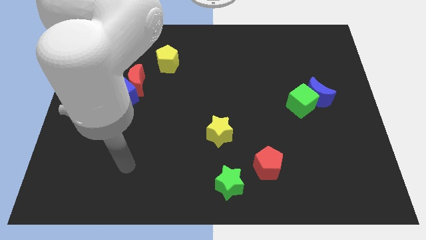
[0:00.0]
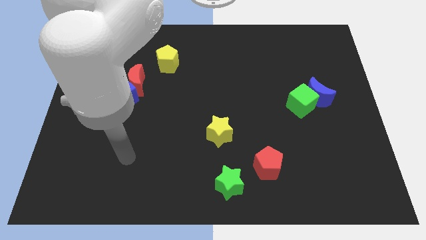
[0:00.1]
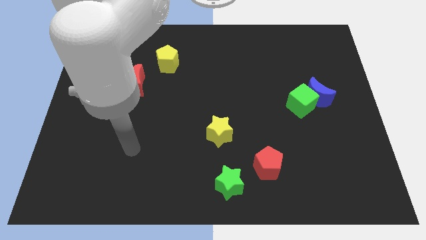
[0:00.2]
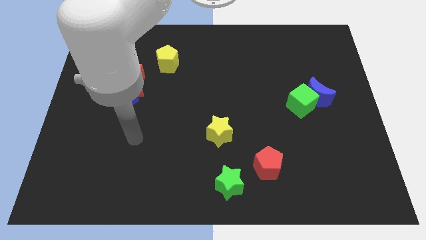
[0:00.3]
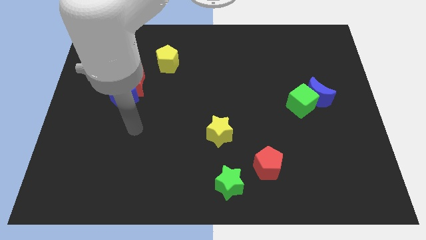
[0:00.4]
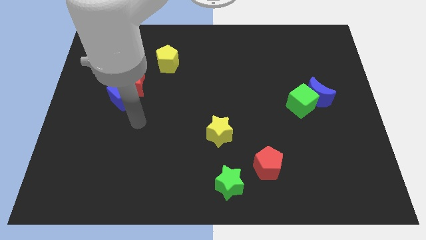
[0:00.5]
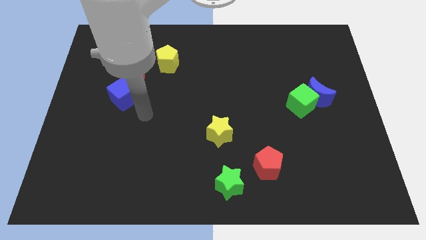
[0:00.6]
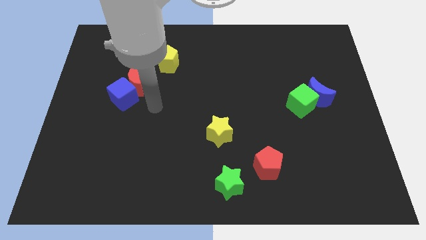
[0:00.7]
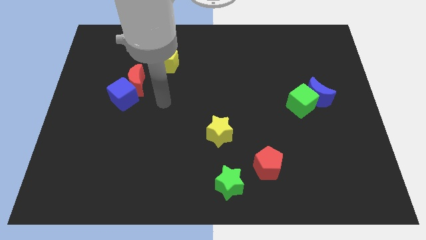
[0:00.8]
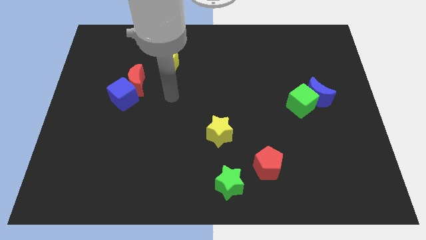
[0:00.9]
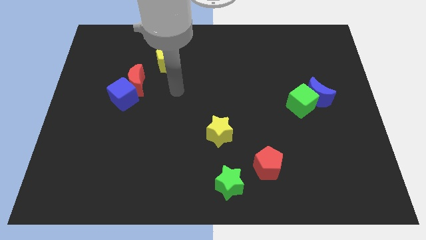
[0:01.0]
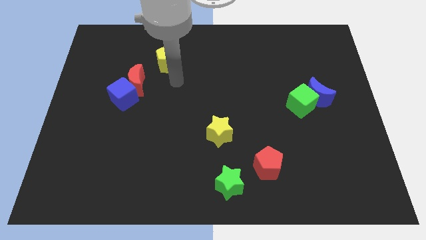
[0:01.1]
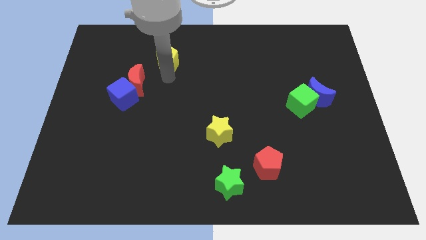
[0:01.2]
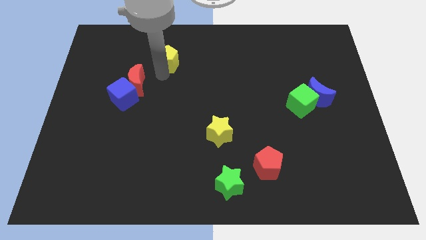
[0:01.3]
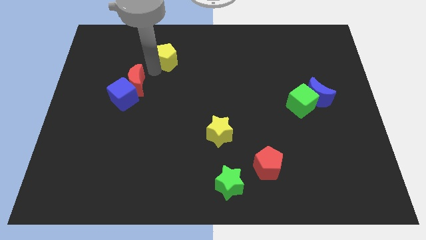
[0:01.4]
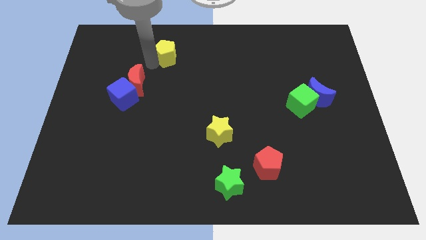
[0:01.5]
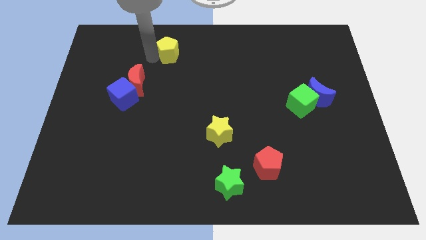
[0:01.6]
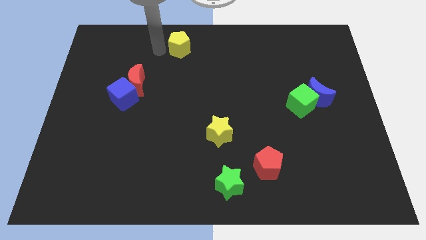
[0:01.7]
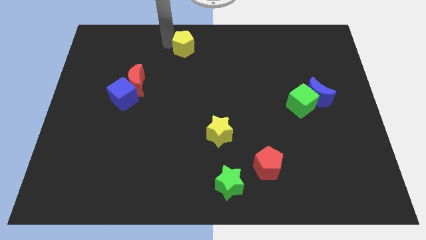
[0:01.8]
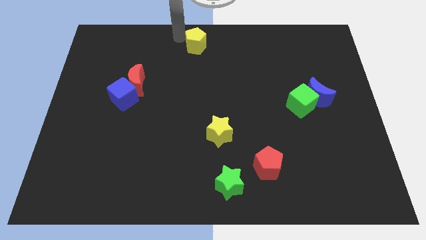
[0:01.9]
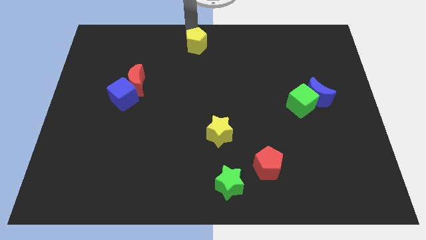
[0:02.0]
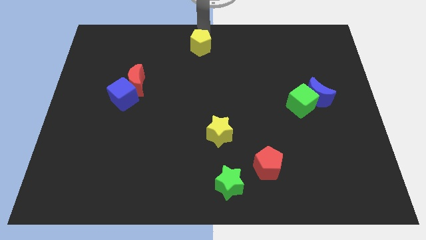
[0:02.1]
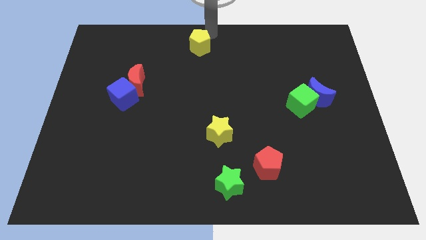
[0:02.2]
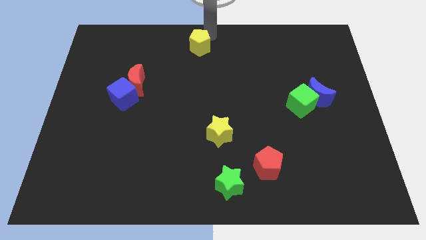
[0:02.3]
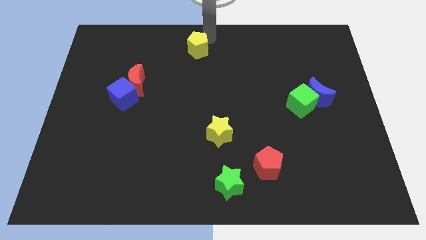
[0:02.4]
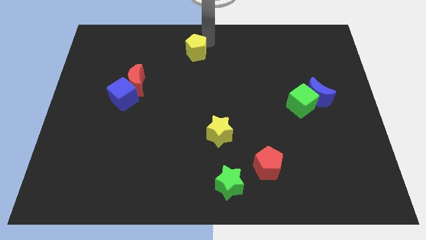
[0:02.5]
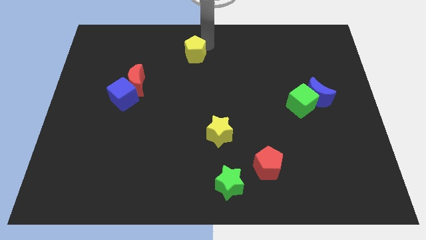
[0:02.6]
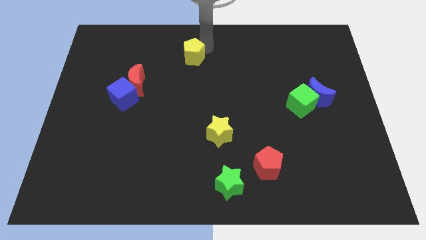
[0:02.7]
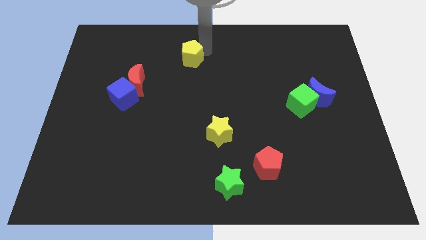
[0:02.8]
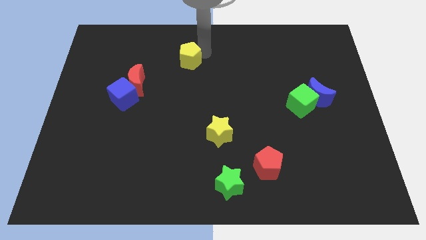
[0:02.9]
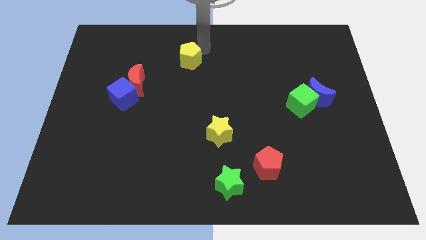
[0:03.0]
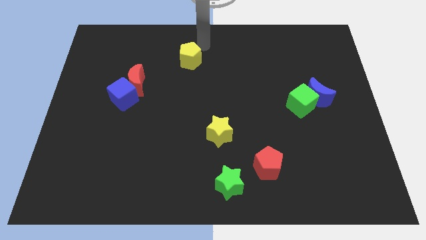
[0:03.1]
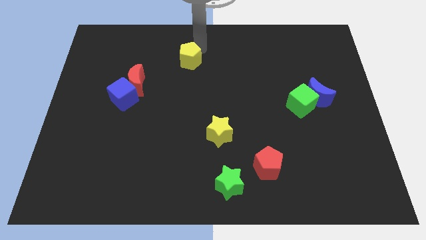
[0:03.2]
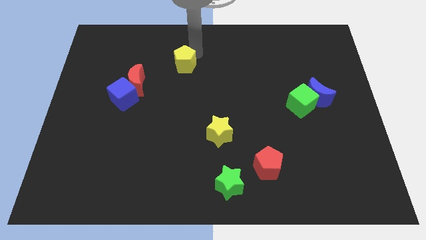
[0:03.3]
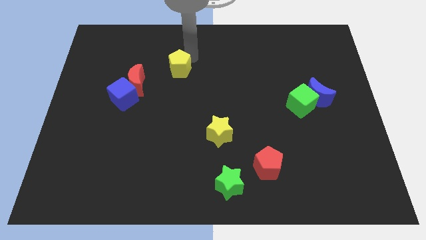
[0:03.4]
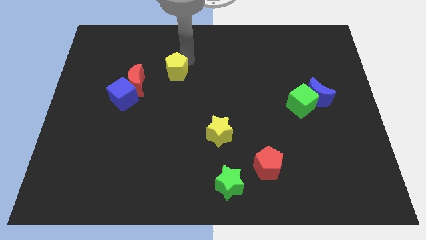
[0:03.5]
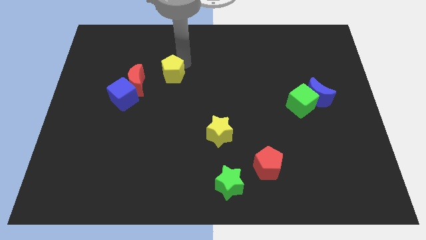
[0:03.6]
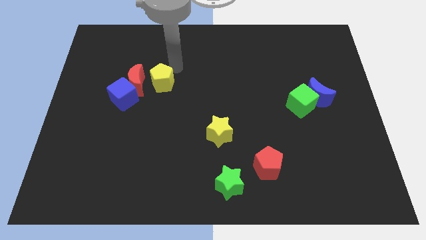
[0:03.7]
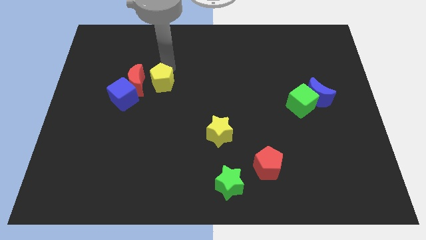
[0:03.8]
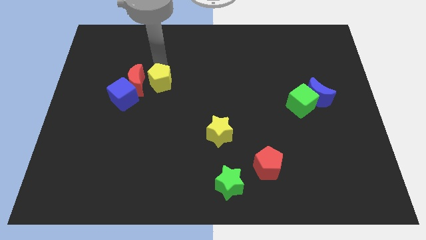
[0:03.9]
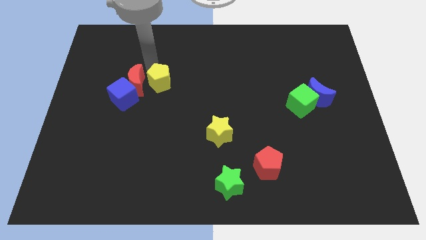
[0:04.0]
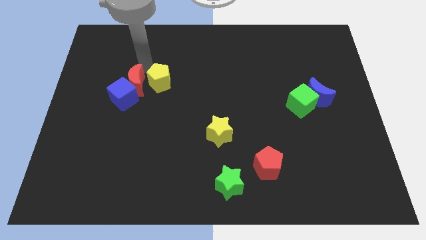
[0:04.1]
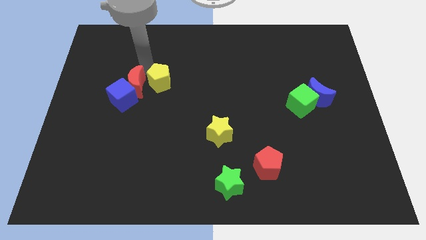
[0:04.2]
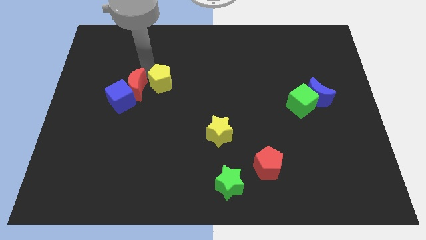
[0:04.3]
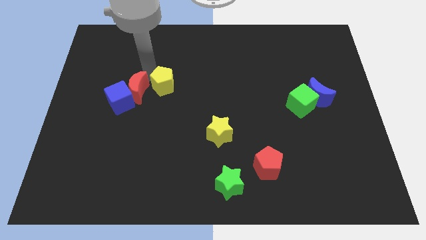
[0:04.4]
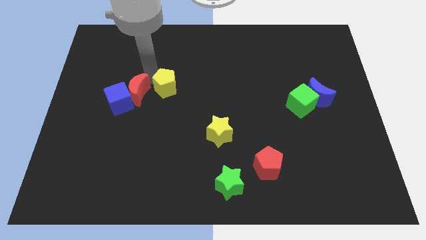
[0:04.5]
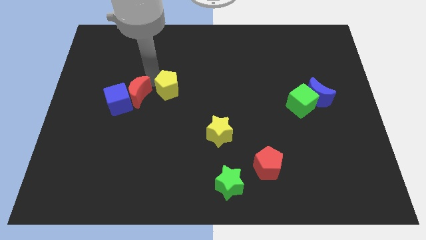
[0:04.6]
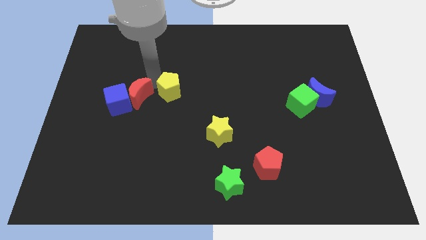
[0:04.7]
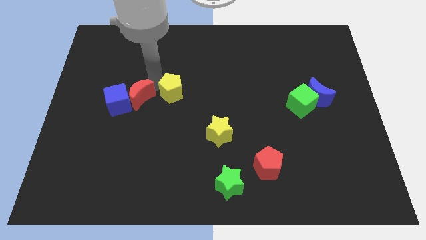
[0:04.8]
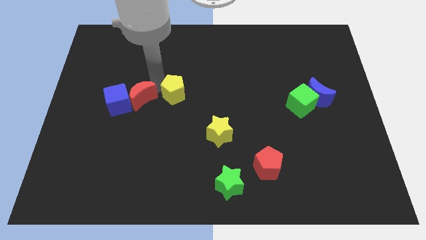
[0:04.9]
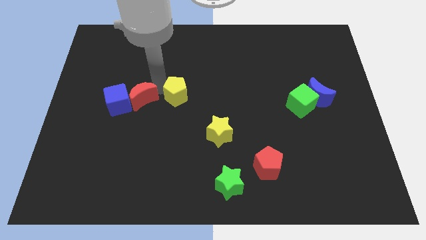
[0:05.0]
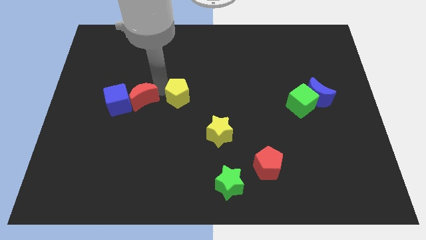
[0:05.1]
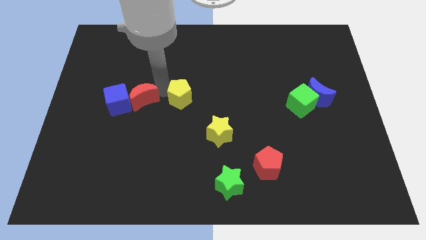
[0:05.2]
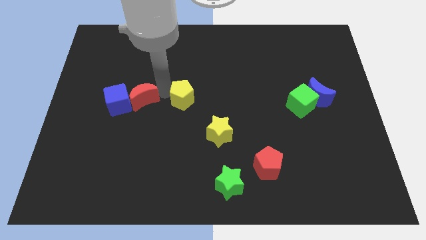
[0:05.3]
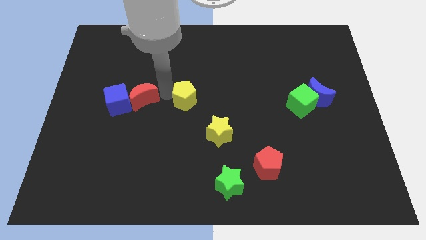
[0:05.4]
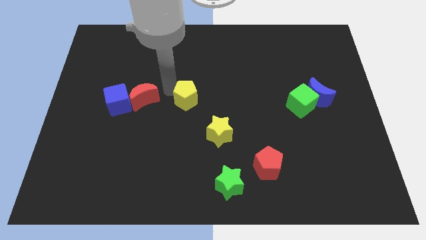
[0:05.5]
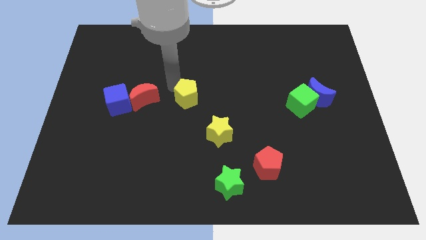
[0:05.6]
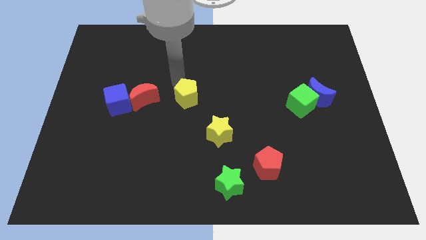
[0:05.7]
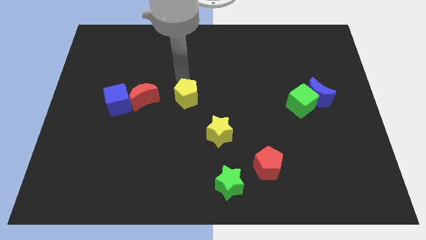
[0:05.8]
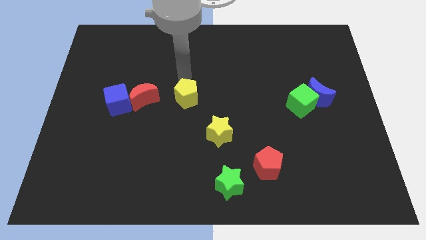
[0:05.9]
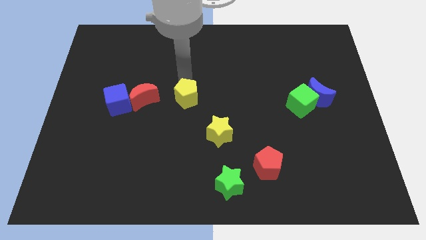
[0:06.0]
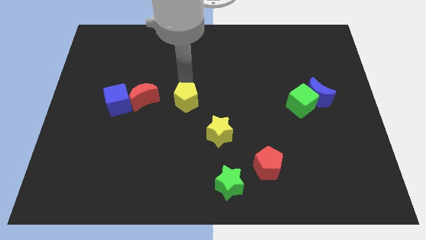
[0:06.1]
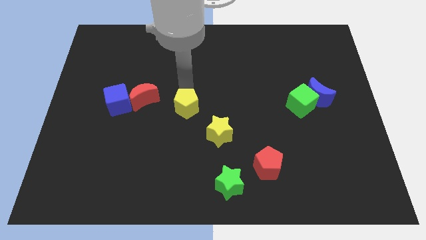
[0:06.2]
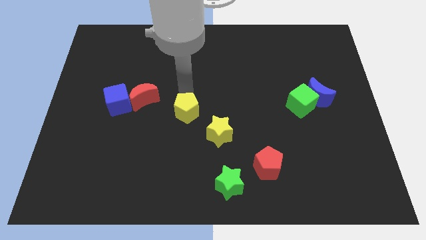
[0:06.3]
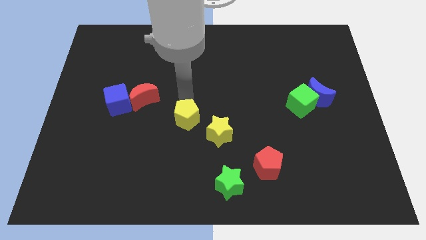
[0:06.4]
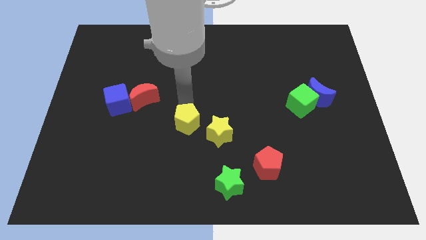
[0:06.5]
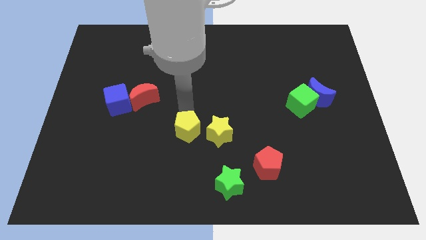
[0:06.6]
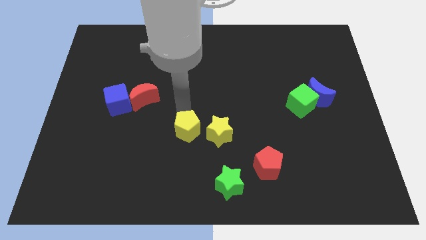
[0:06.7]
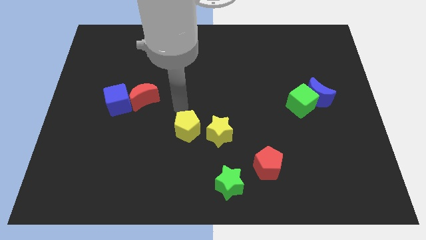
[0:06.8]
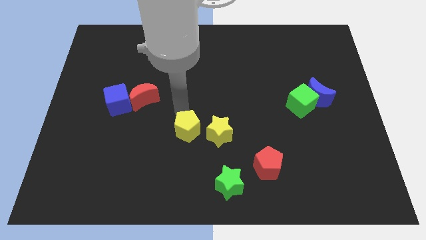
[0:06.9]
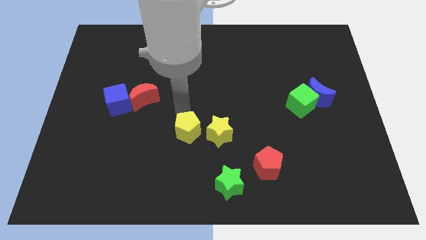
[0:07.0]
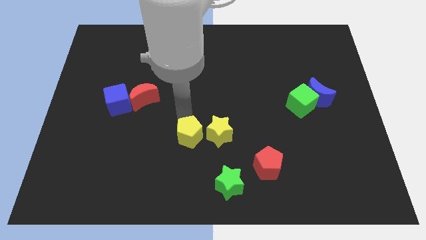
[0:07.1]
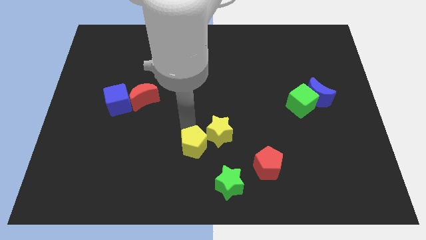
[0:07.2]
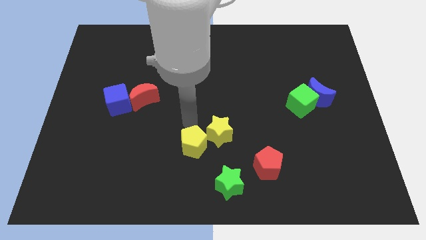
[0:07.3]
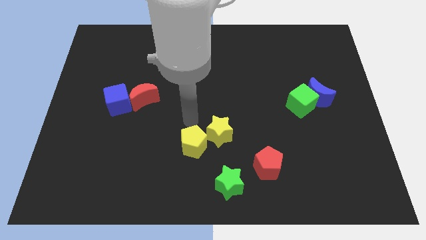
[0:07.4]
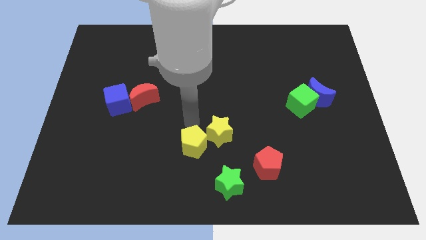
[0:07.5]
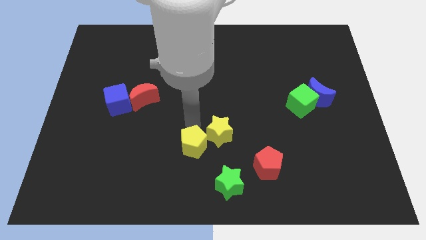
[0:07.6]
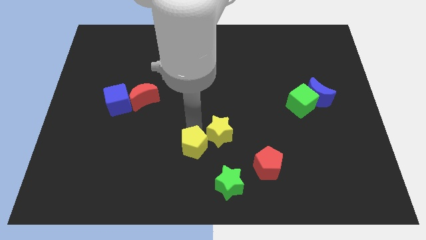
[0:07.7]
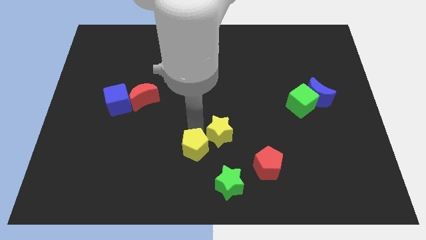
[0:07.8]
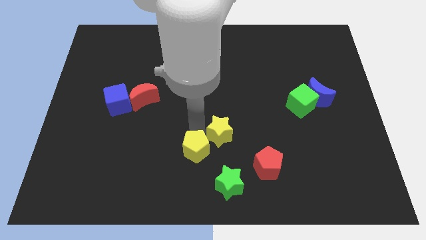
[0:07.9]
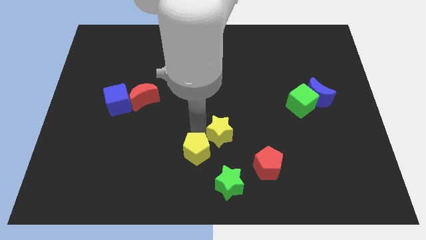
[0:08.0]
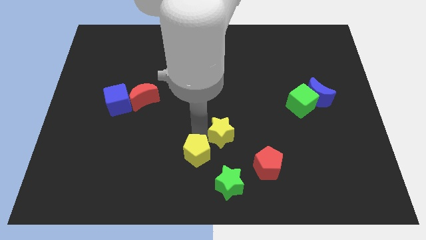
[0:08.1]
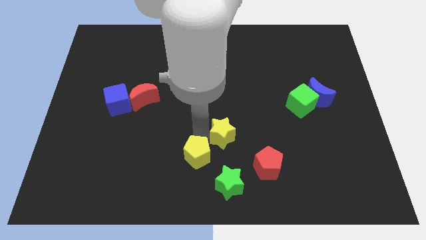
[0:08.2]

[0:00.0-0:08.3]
push the yellow pentagon to the bottom
